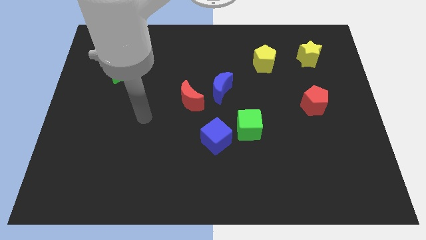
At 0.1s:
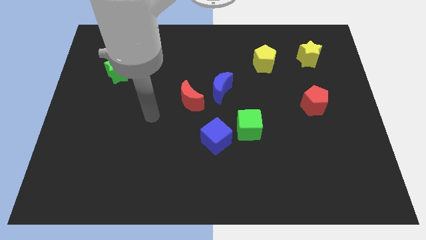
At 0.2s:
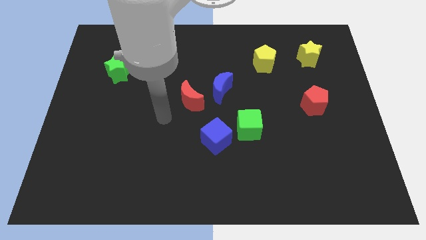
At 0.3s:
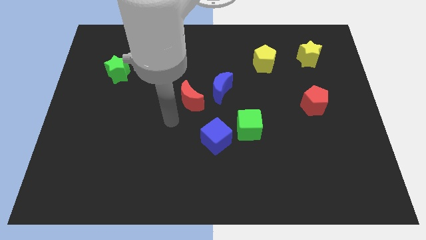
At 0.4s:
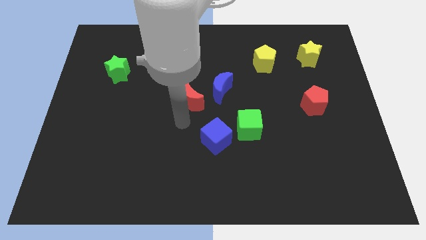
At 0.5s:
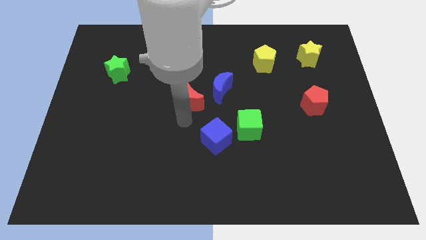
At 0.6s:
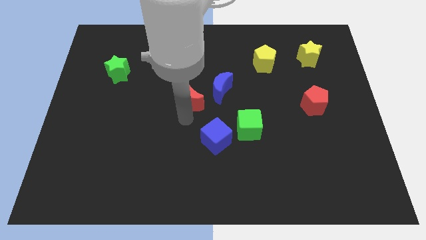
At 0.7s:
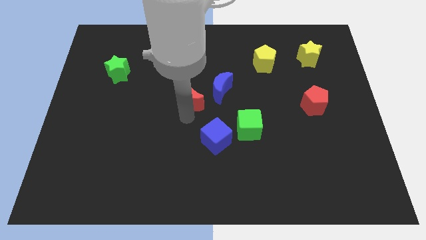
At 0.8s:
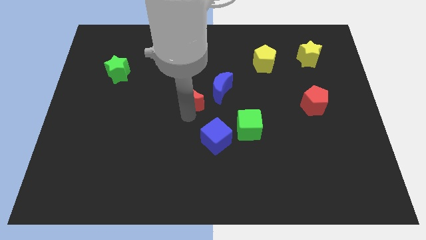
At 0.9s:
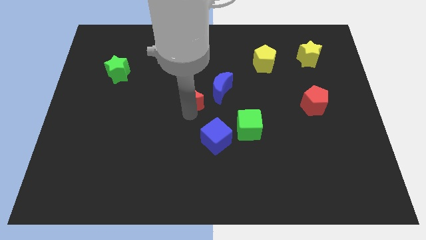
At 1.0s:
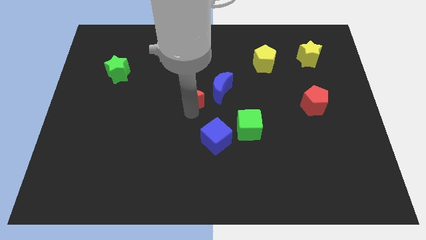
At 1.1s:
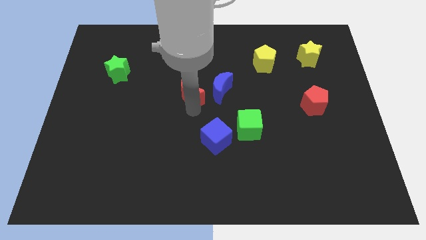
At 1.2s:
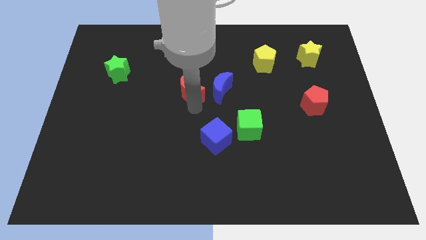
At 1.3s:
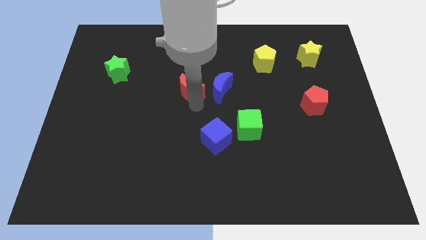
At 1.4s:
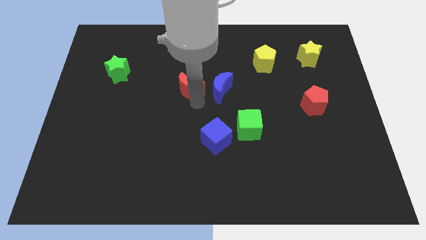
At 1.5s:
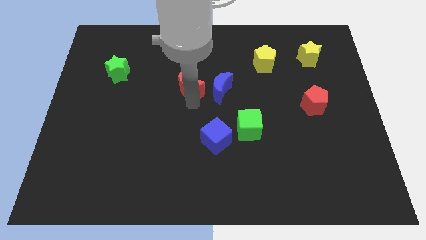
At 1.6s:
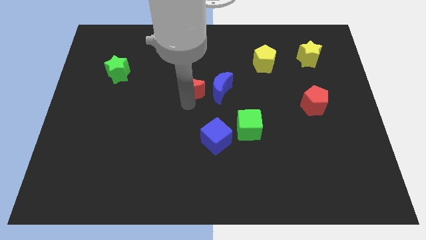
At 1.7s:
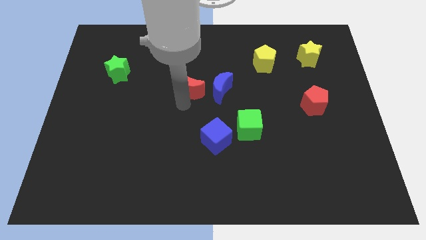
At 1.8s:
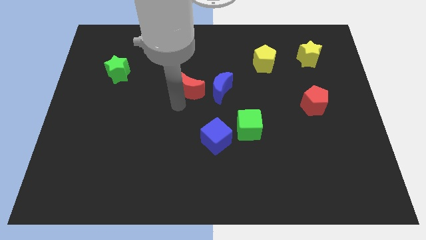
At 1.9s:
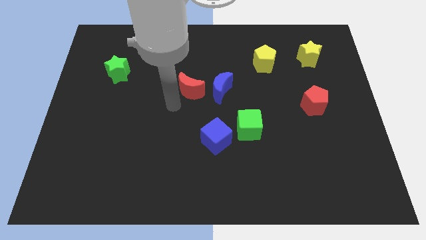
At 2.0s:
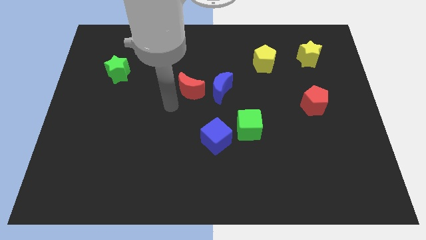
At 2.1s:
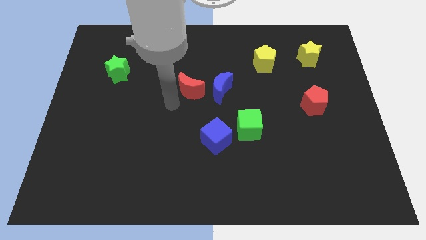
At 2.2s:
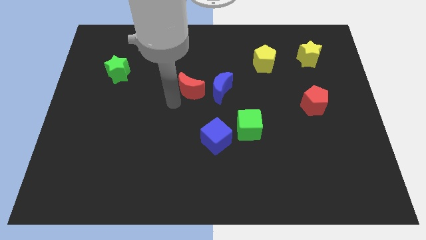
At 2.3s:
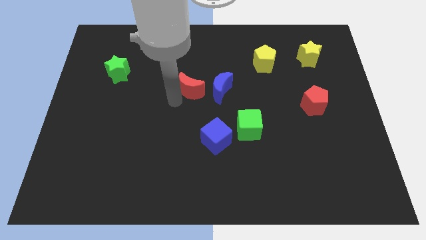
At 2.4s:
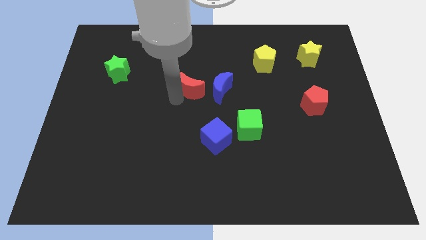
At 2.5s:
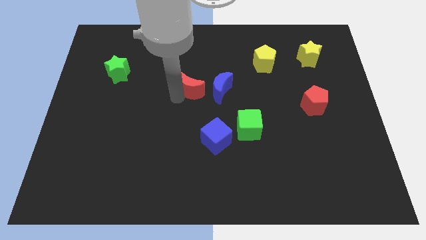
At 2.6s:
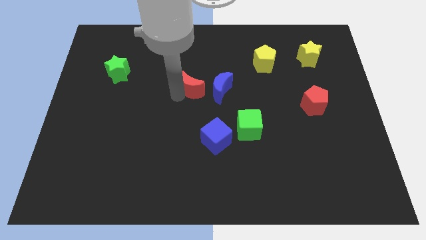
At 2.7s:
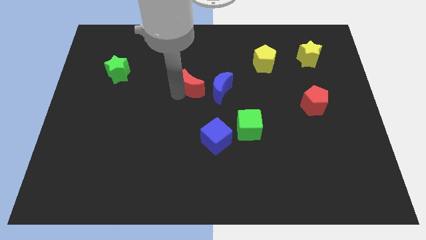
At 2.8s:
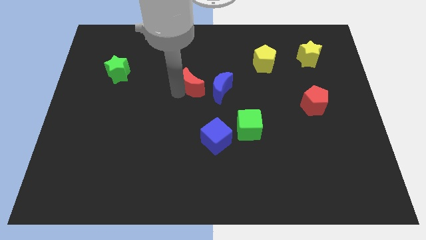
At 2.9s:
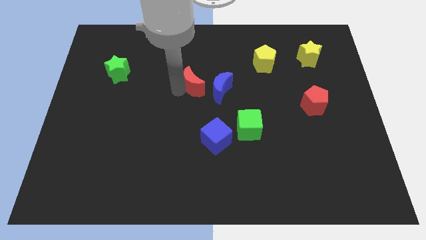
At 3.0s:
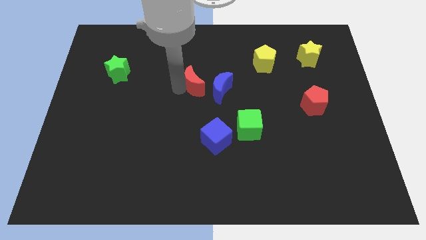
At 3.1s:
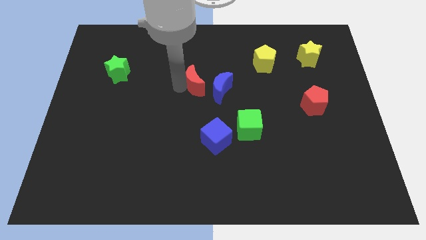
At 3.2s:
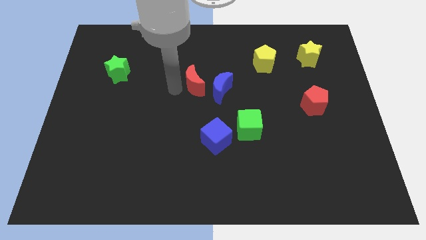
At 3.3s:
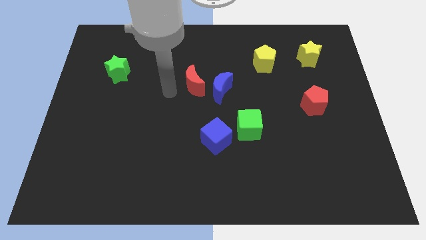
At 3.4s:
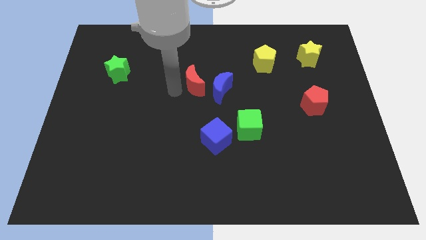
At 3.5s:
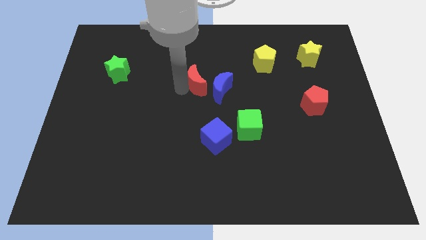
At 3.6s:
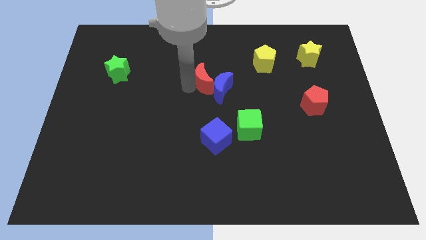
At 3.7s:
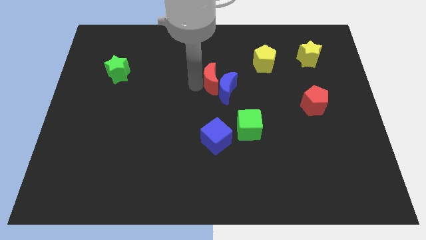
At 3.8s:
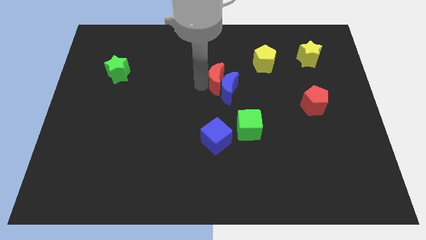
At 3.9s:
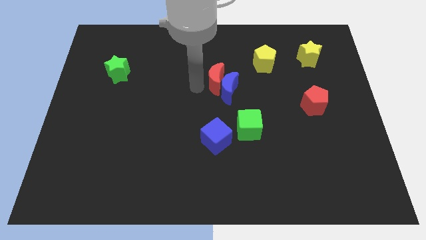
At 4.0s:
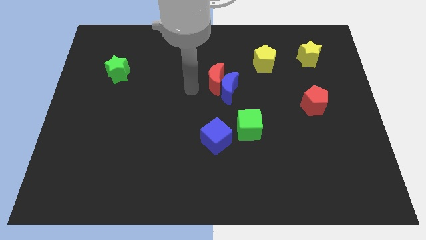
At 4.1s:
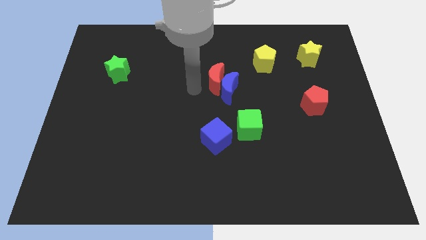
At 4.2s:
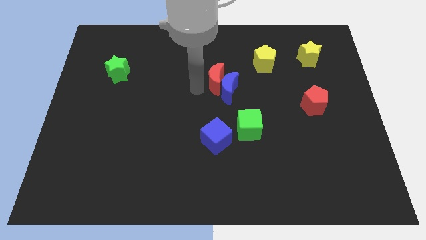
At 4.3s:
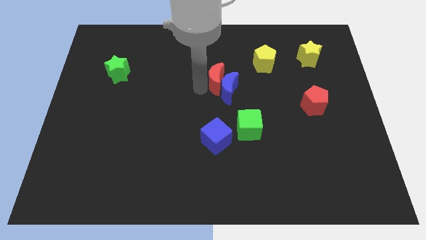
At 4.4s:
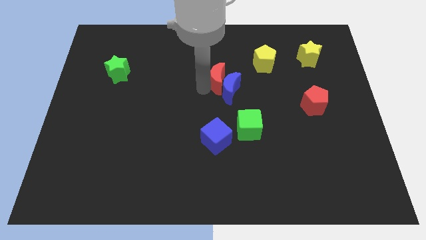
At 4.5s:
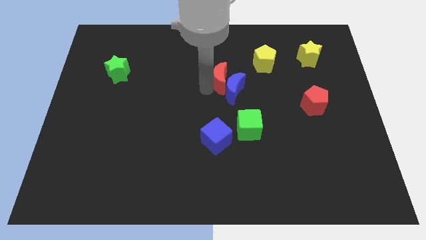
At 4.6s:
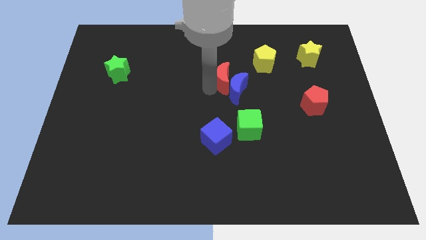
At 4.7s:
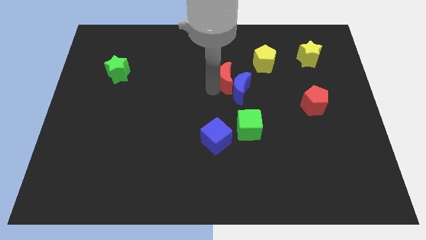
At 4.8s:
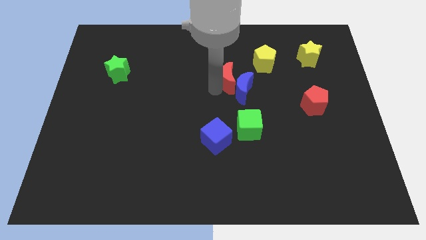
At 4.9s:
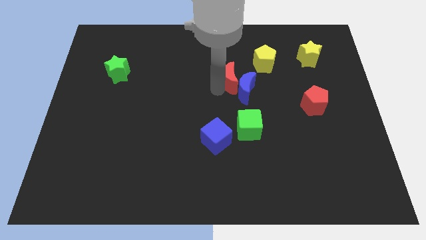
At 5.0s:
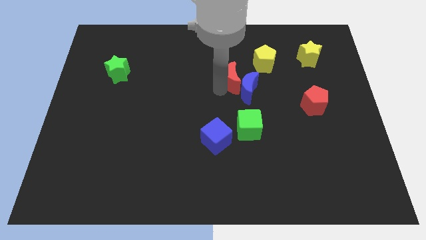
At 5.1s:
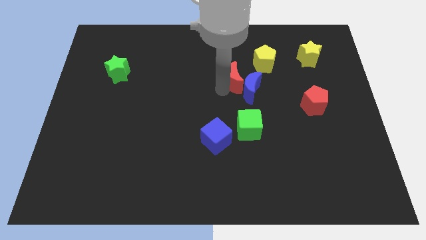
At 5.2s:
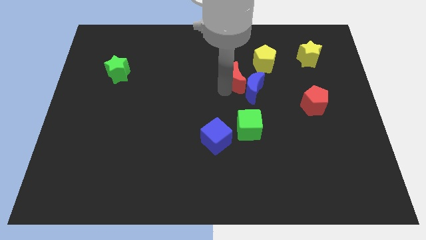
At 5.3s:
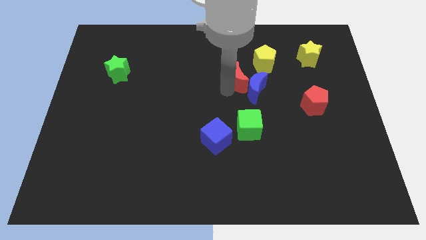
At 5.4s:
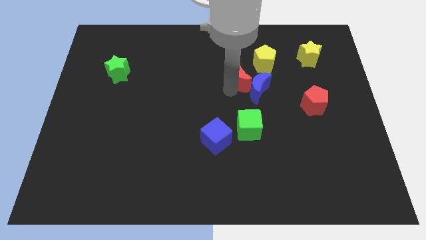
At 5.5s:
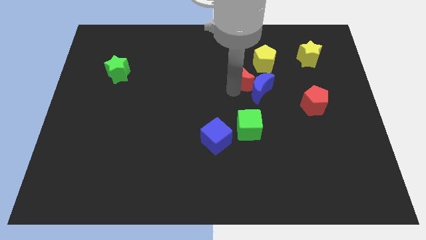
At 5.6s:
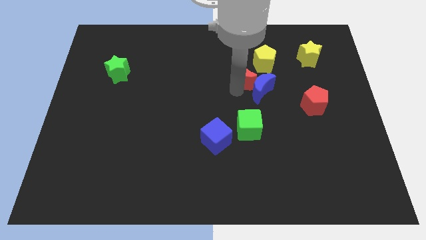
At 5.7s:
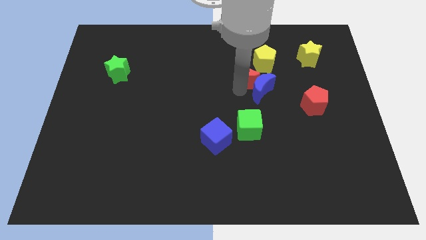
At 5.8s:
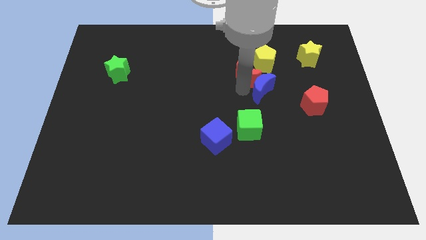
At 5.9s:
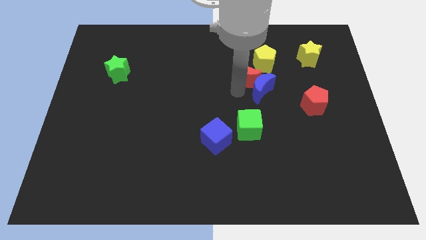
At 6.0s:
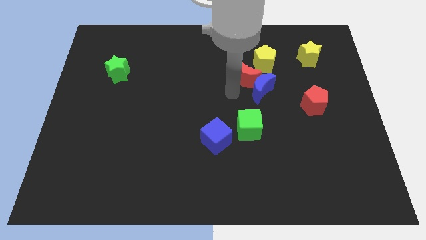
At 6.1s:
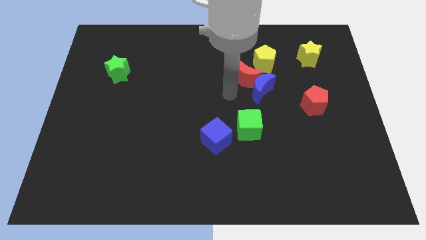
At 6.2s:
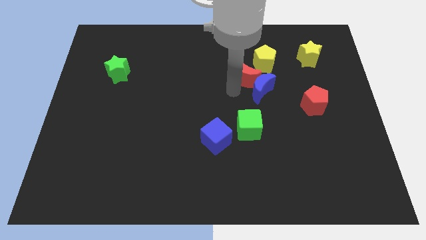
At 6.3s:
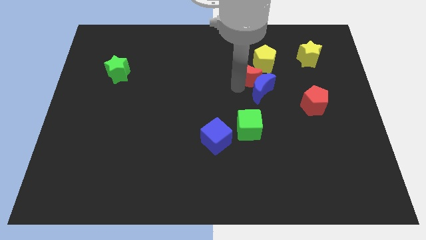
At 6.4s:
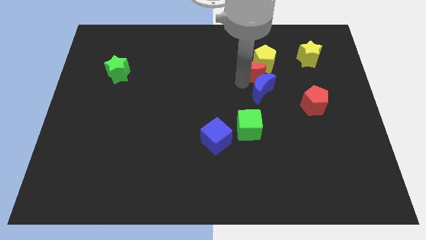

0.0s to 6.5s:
move the red moon close to the yellow pentagon
